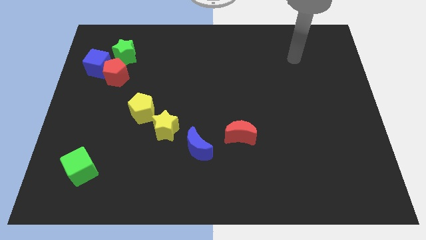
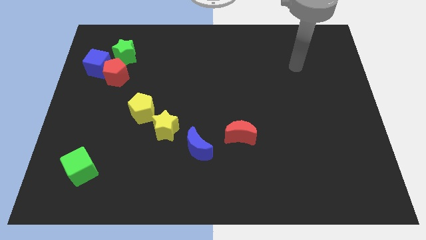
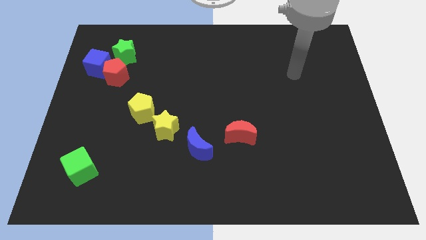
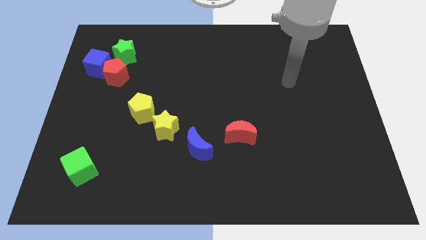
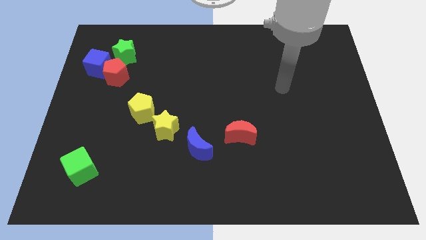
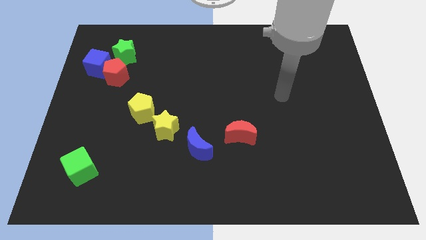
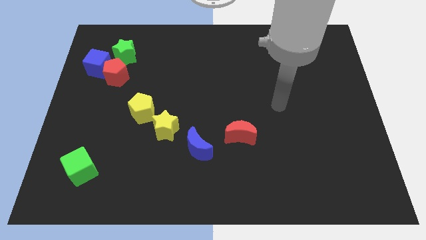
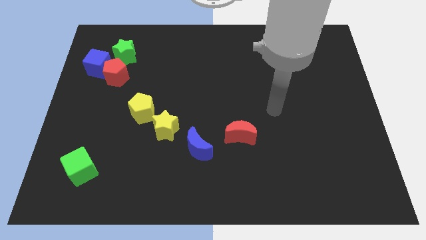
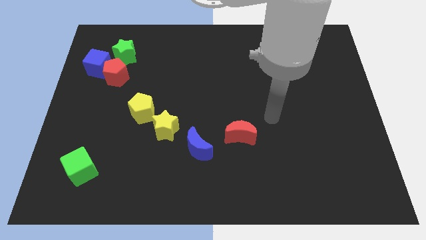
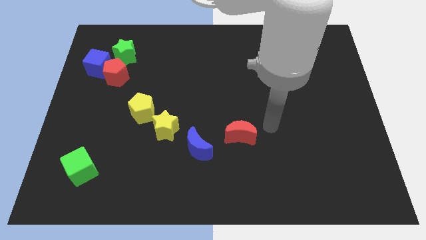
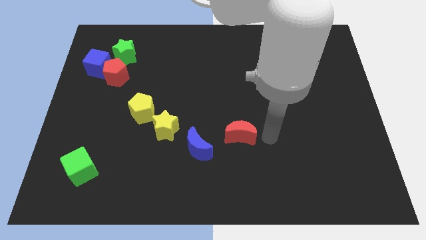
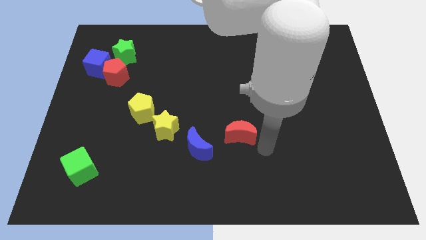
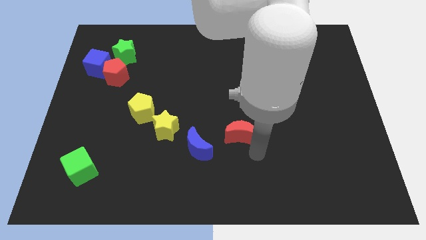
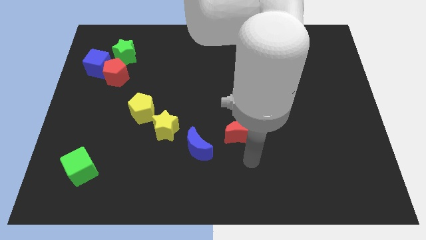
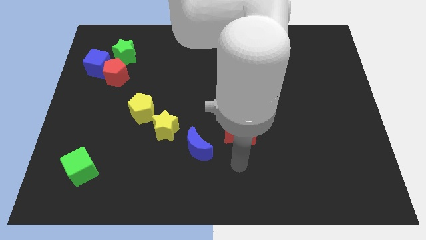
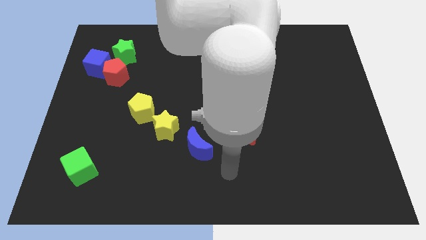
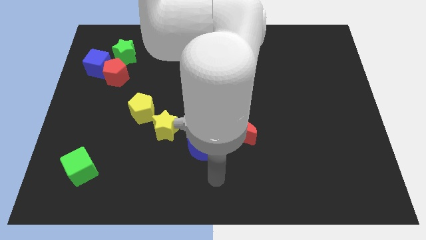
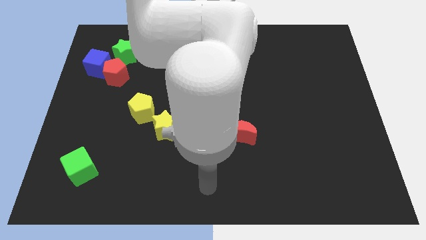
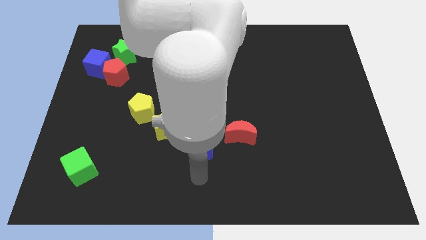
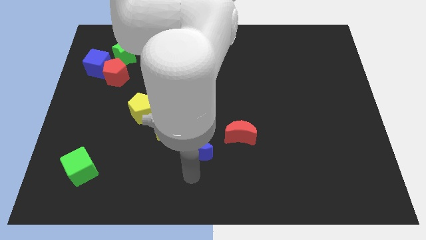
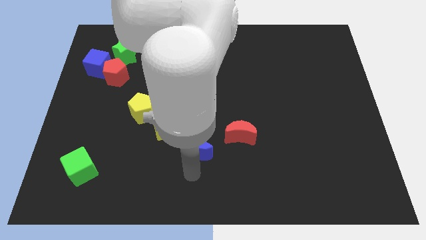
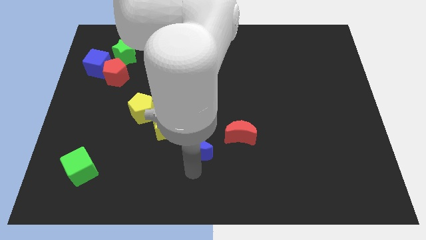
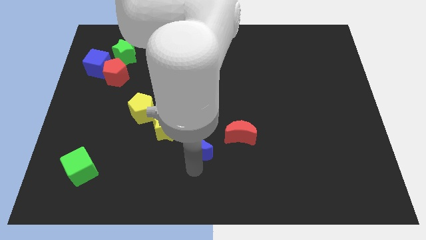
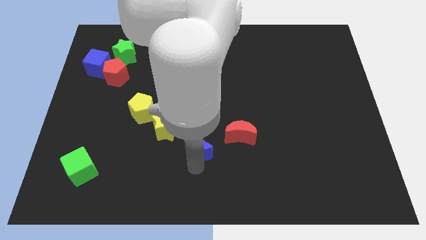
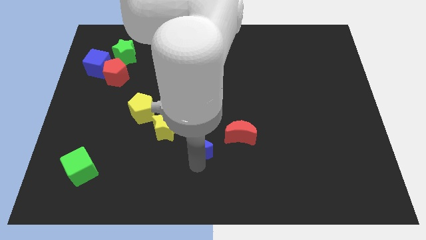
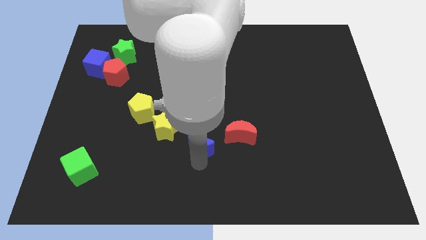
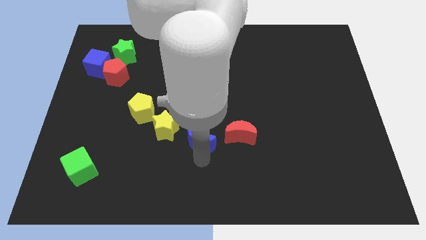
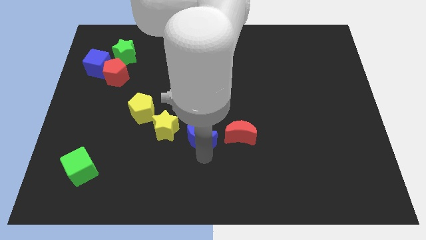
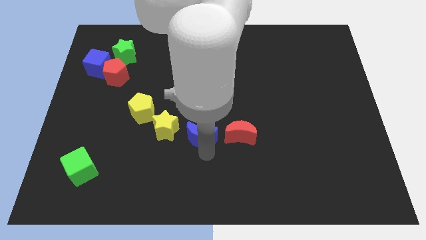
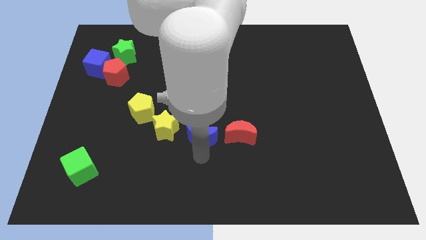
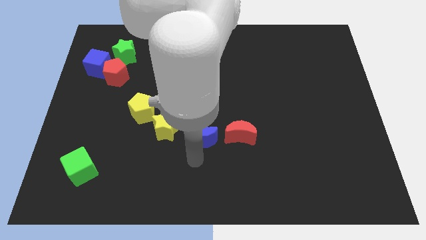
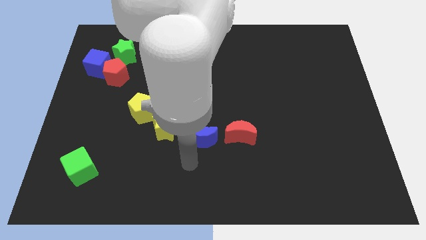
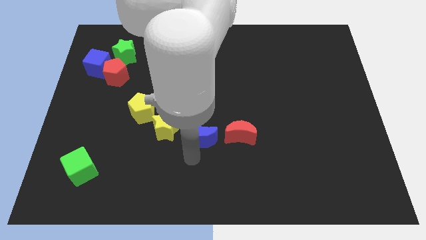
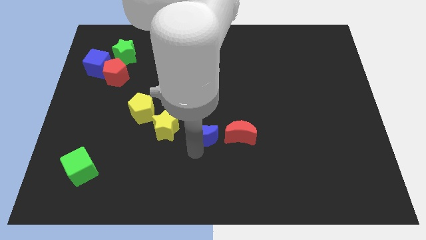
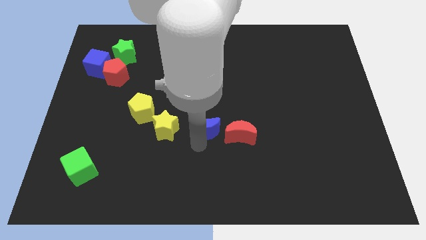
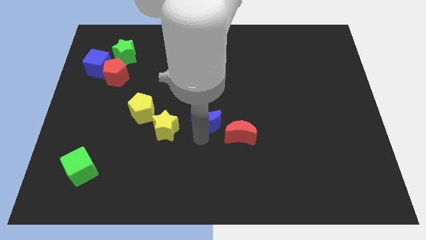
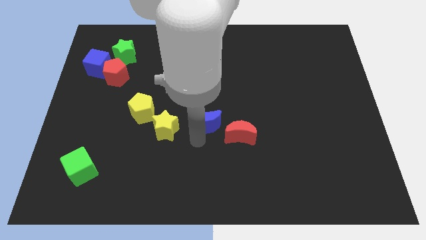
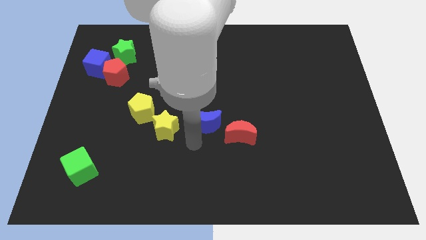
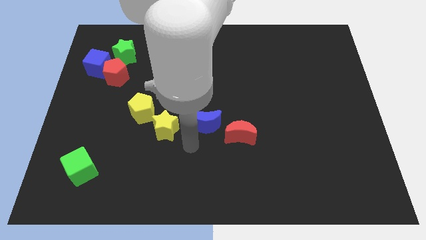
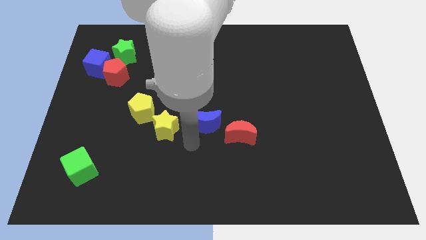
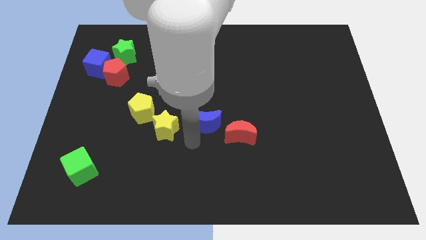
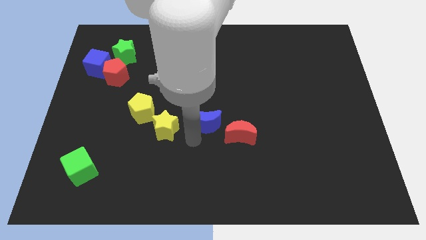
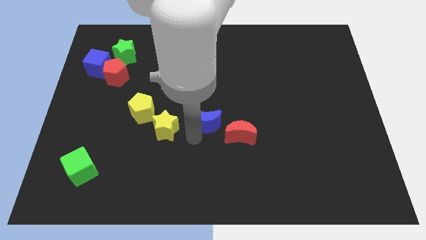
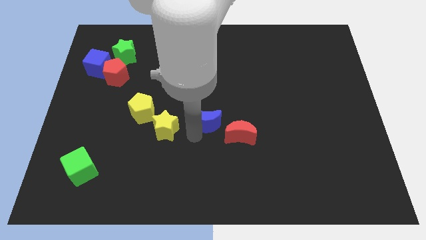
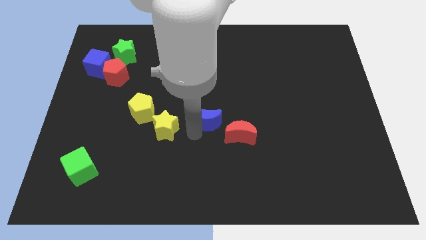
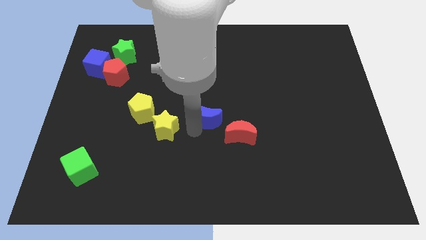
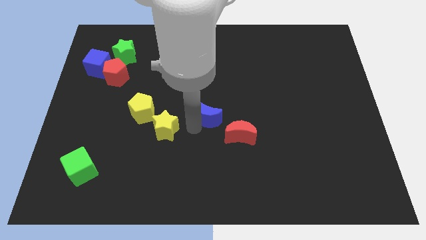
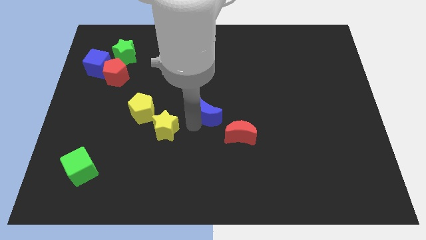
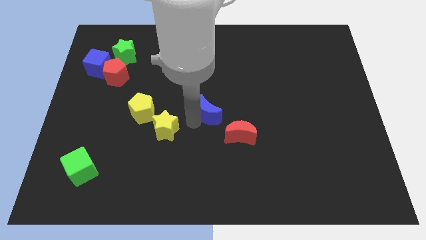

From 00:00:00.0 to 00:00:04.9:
push the blue moon upwards and right diagonally somewhat

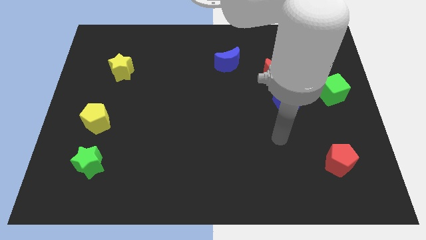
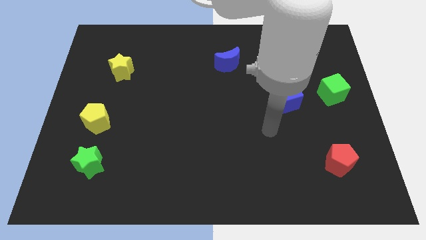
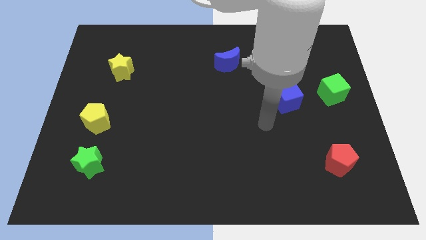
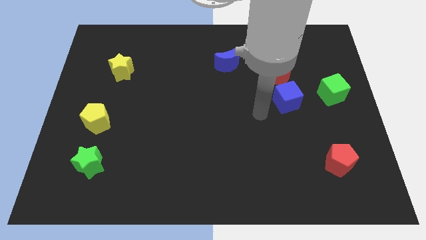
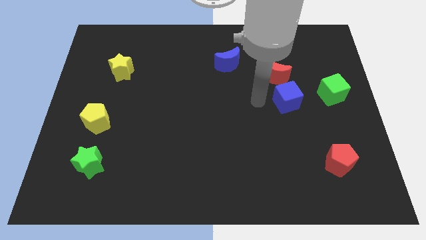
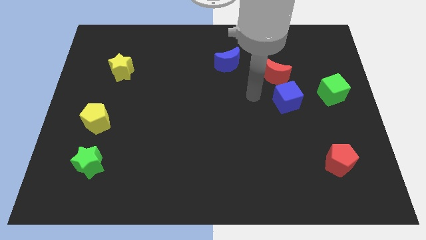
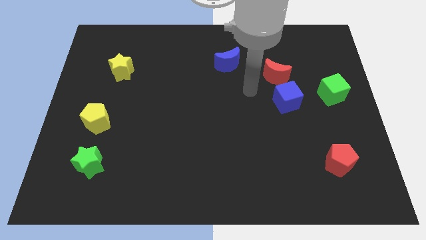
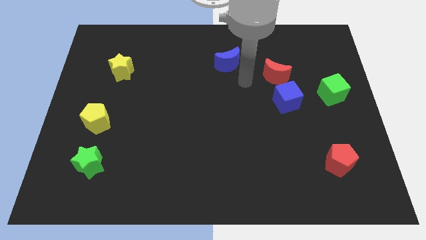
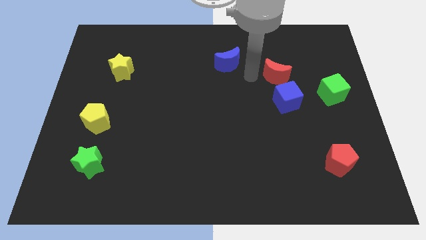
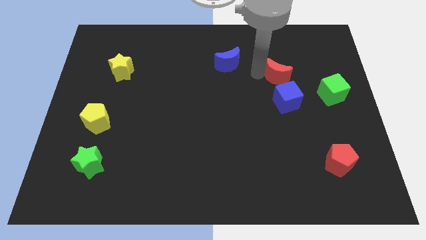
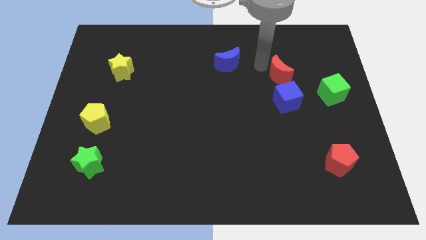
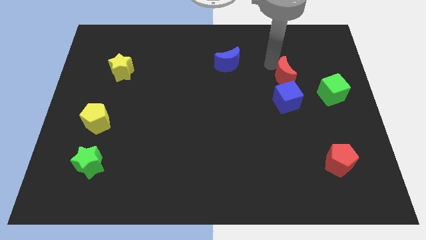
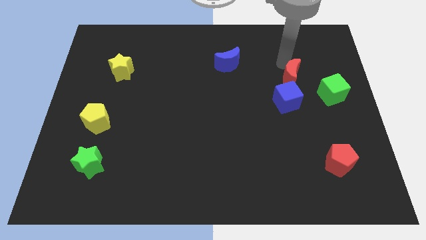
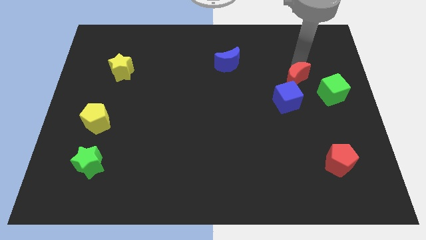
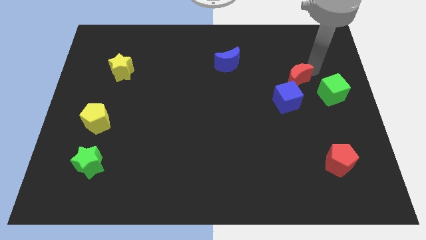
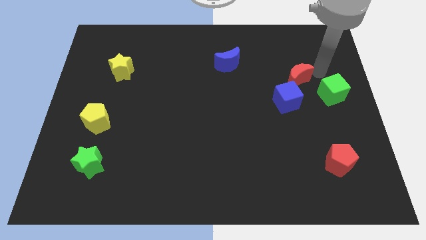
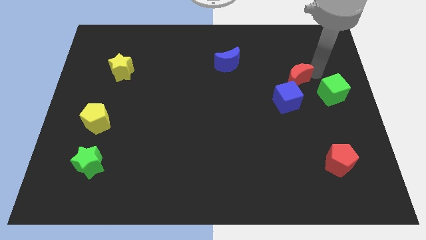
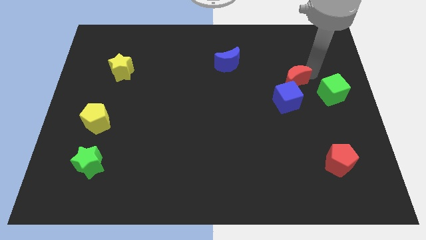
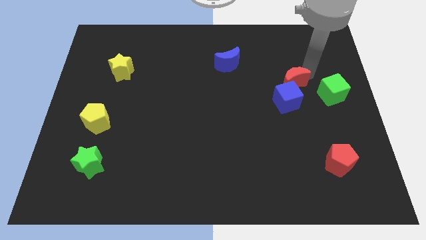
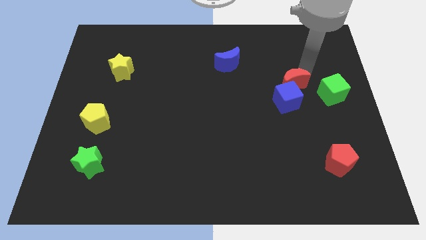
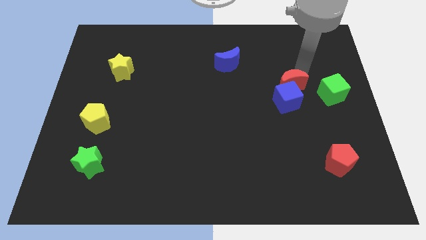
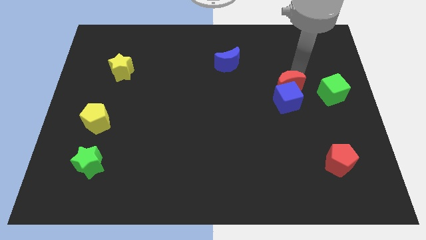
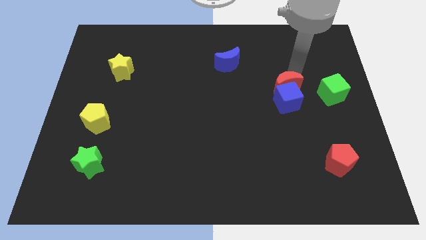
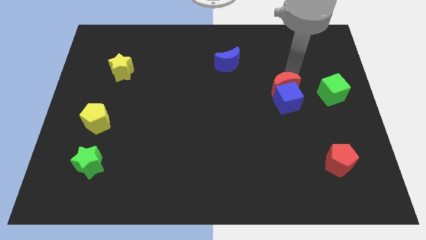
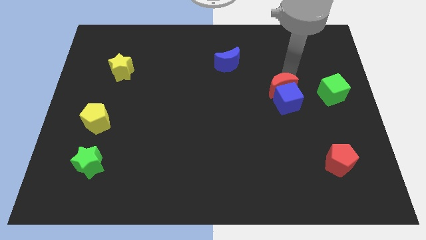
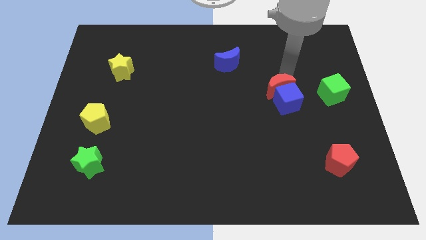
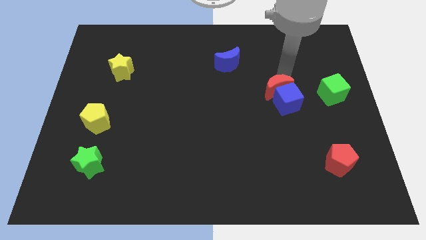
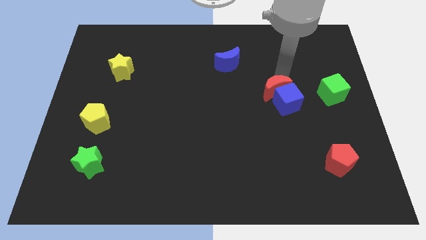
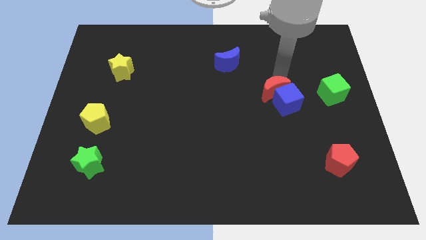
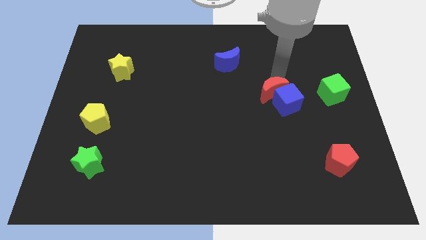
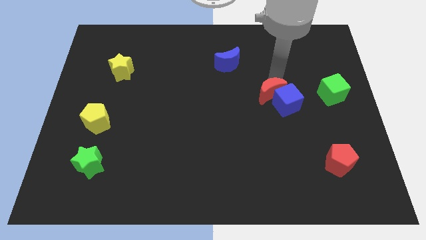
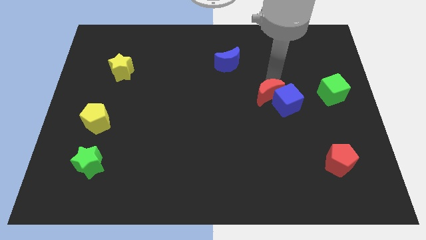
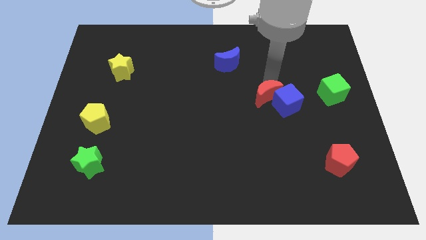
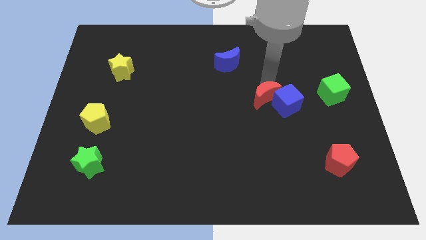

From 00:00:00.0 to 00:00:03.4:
slide the red moon slightly downwards and left
